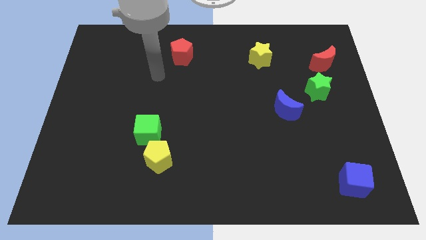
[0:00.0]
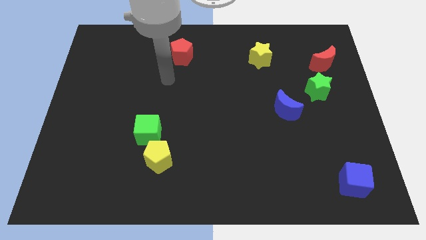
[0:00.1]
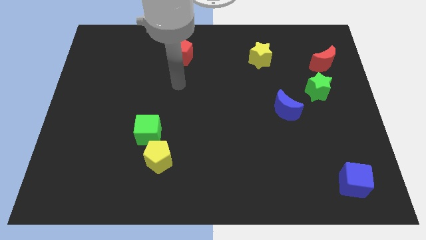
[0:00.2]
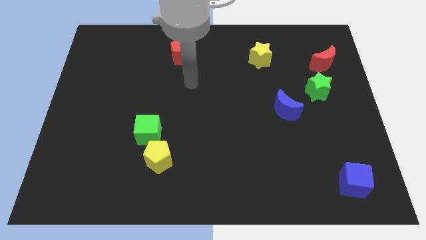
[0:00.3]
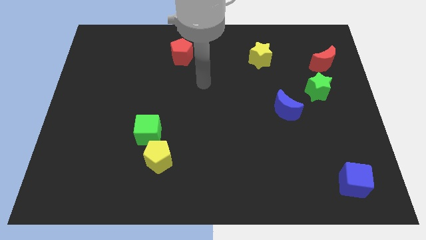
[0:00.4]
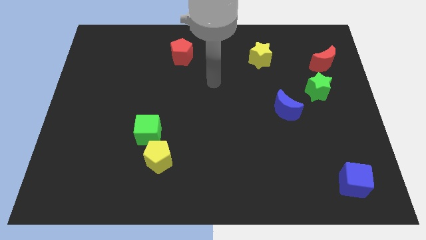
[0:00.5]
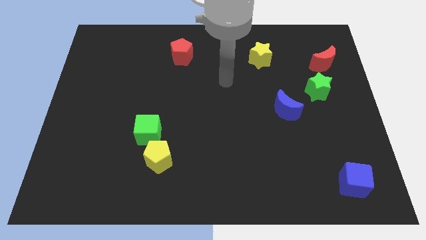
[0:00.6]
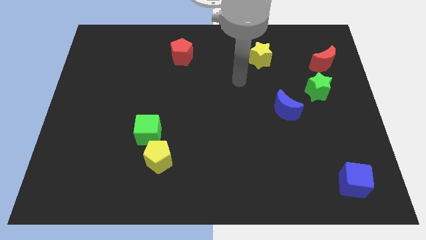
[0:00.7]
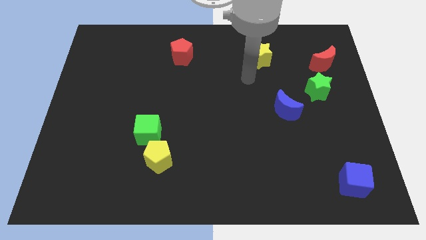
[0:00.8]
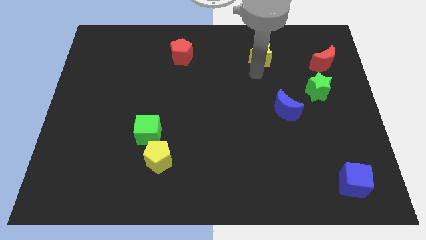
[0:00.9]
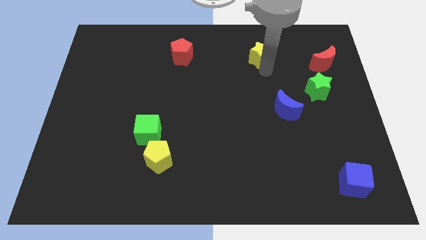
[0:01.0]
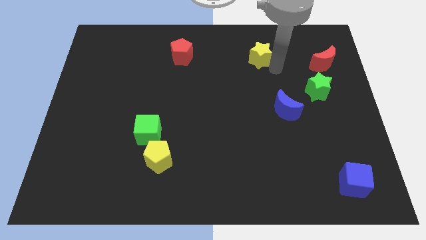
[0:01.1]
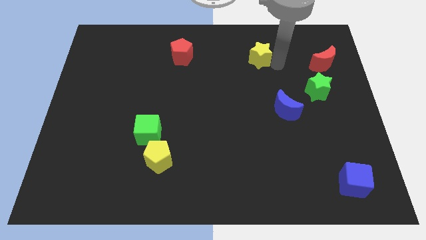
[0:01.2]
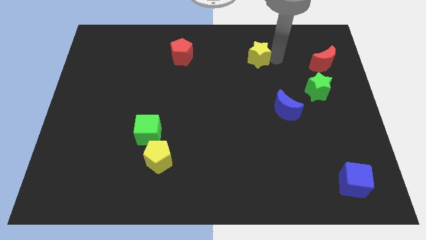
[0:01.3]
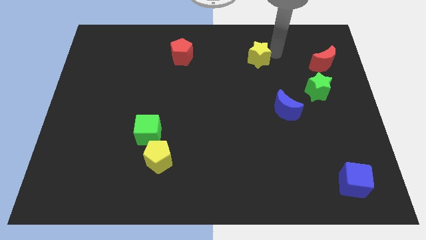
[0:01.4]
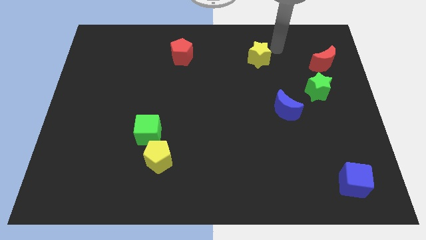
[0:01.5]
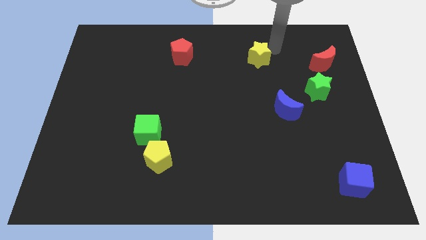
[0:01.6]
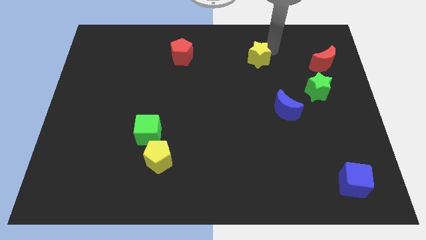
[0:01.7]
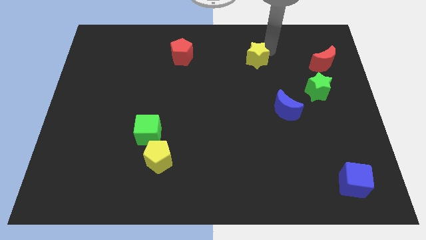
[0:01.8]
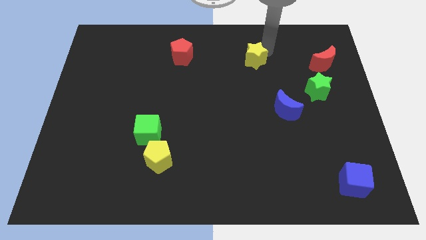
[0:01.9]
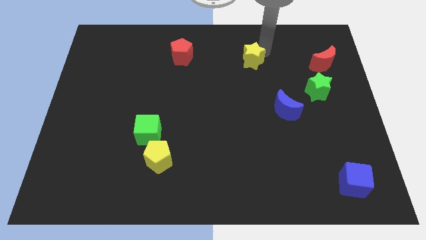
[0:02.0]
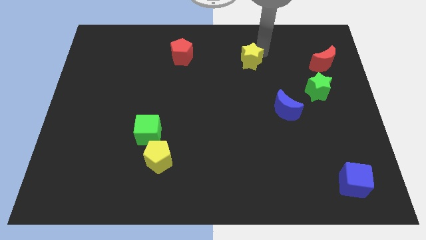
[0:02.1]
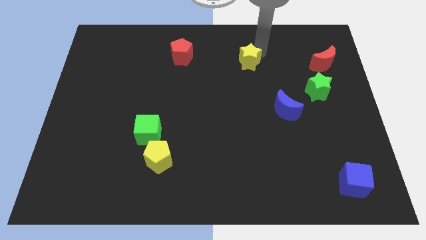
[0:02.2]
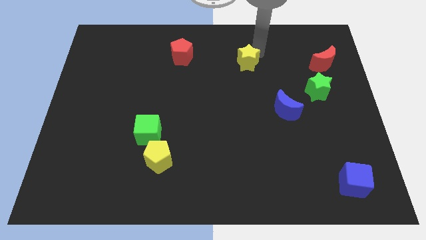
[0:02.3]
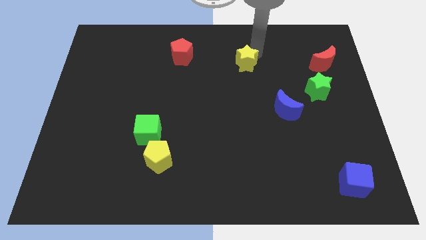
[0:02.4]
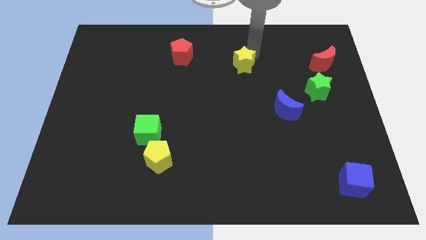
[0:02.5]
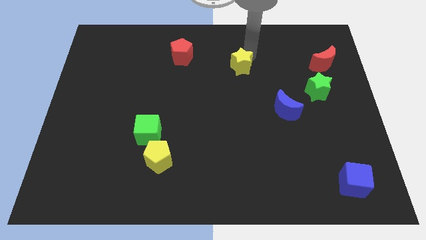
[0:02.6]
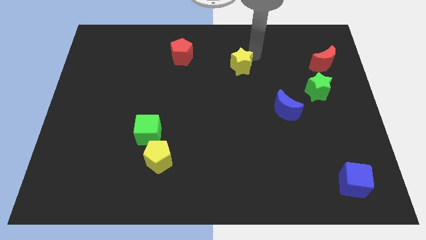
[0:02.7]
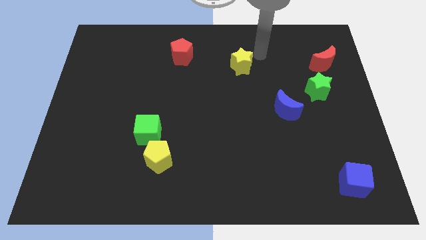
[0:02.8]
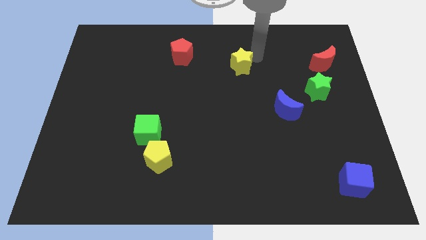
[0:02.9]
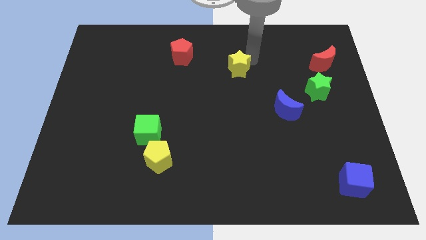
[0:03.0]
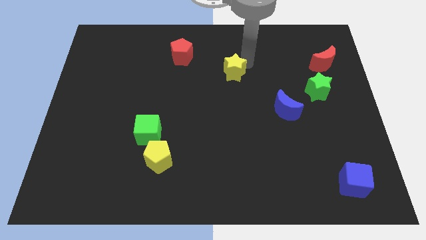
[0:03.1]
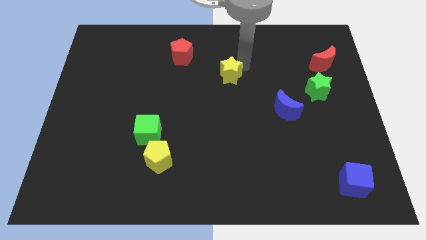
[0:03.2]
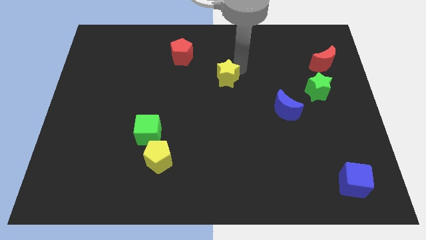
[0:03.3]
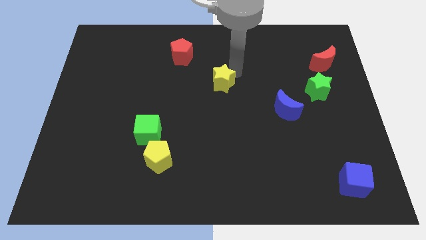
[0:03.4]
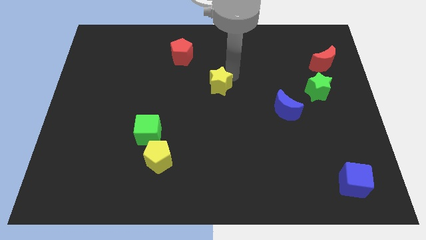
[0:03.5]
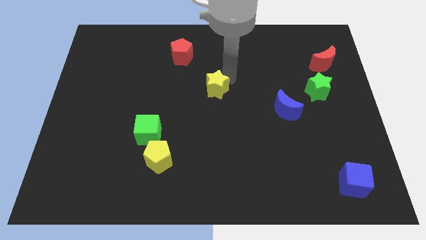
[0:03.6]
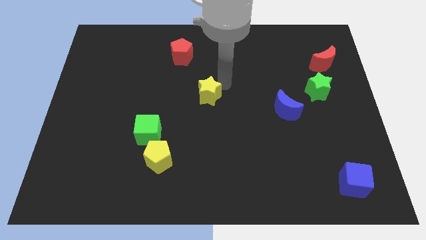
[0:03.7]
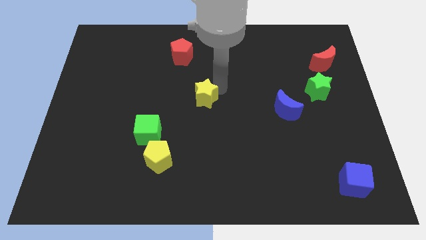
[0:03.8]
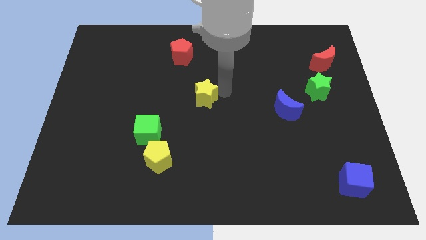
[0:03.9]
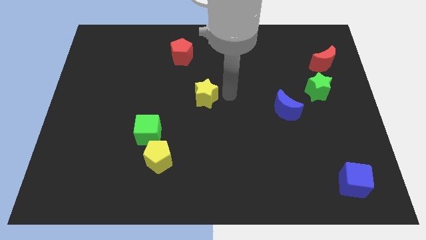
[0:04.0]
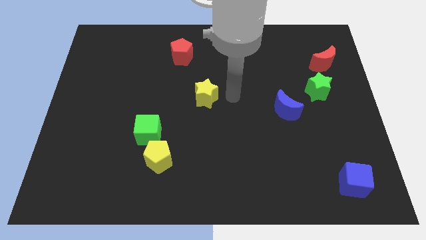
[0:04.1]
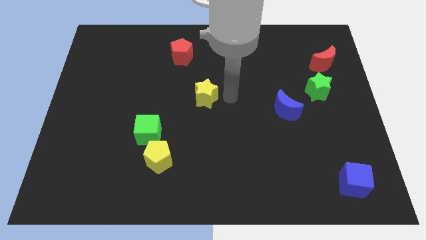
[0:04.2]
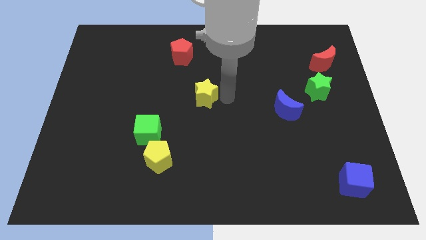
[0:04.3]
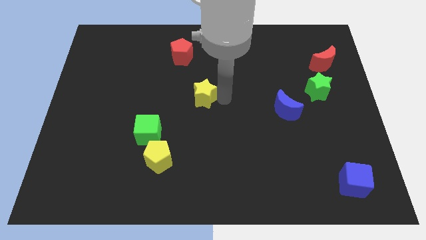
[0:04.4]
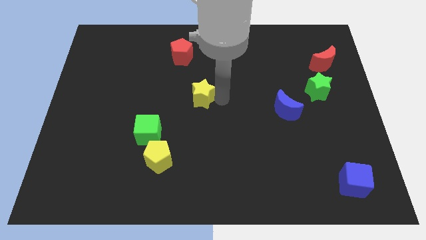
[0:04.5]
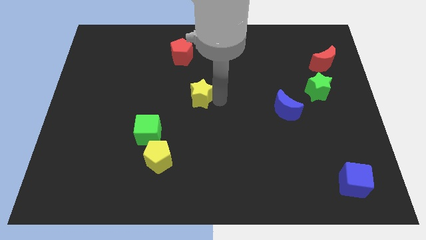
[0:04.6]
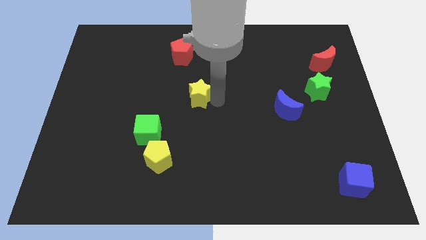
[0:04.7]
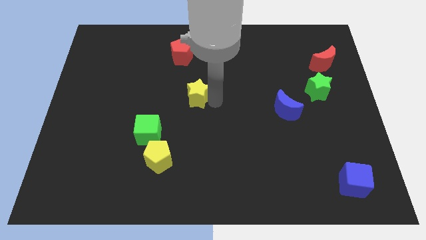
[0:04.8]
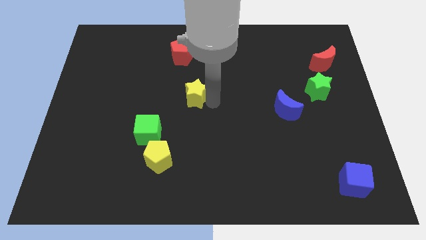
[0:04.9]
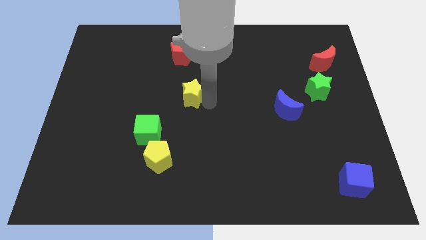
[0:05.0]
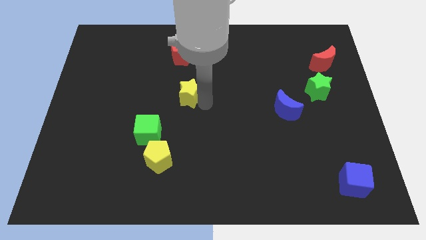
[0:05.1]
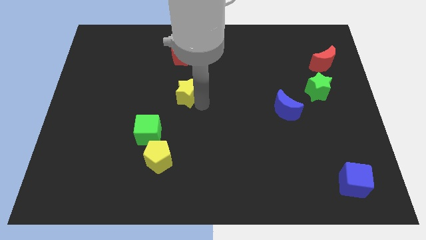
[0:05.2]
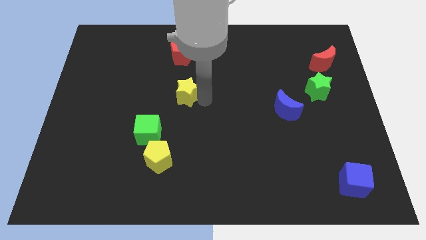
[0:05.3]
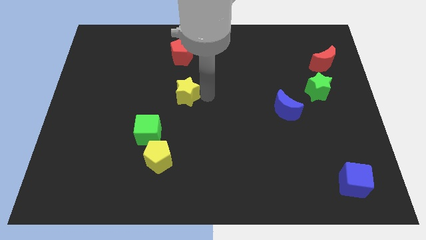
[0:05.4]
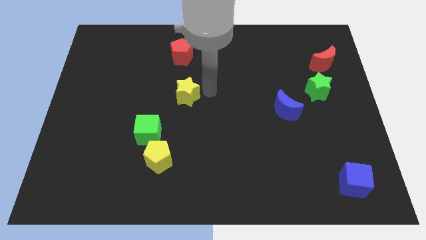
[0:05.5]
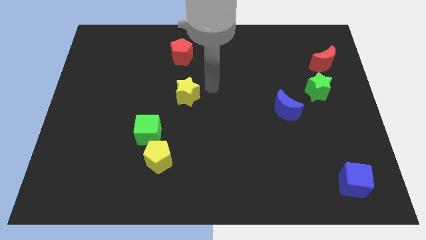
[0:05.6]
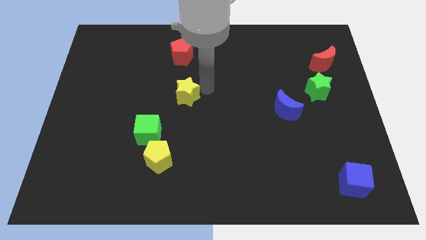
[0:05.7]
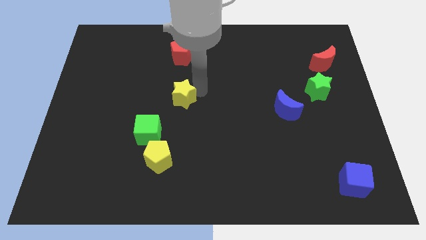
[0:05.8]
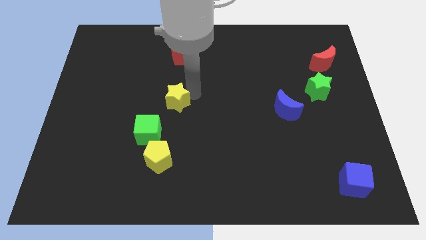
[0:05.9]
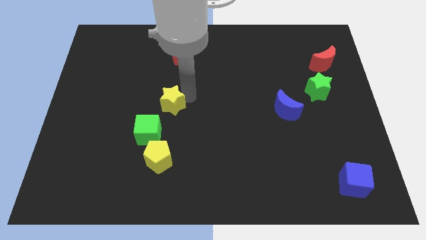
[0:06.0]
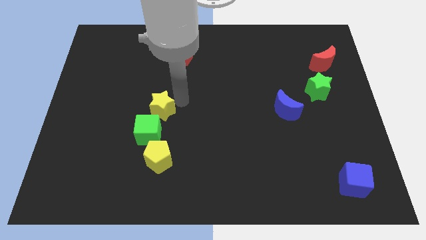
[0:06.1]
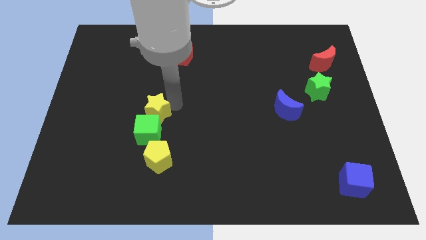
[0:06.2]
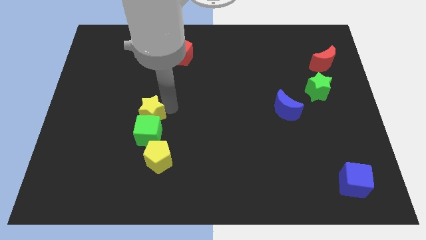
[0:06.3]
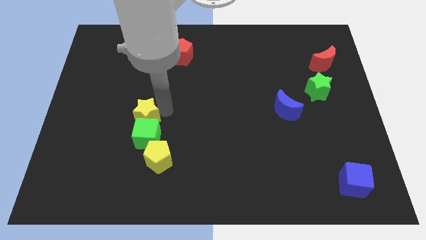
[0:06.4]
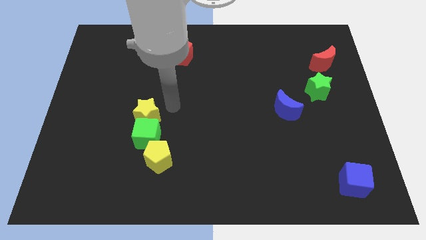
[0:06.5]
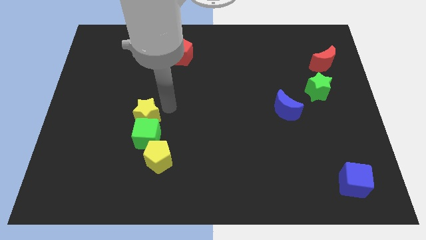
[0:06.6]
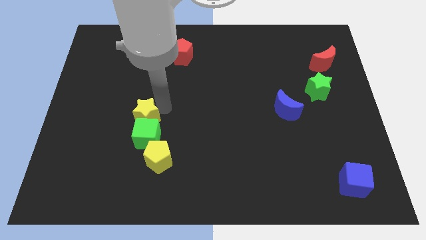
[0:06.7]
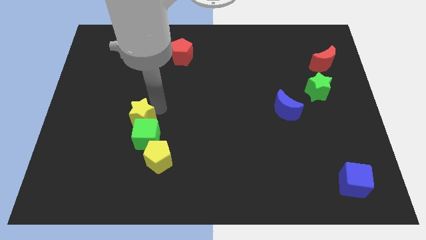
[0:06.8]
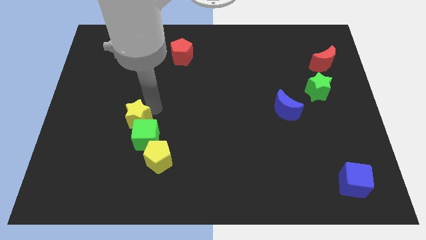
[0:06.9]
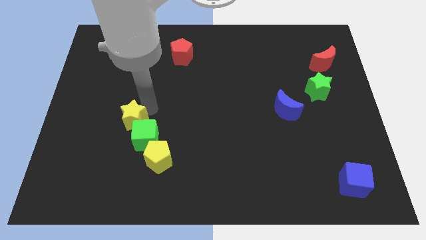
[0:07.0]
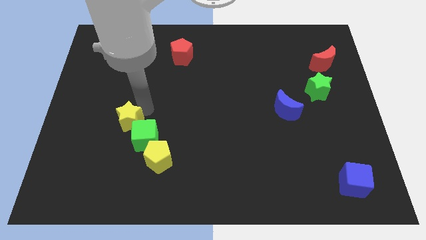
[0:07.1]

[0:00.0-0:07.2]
move the yellow star just left of the green cube
